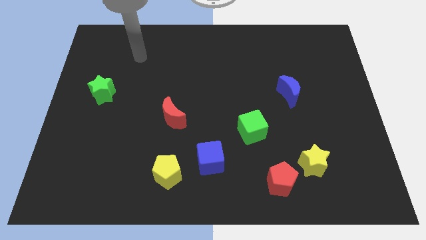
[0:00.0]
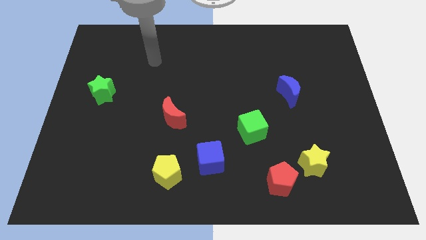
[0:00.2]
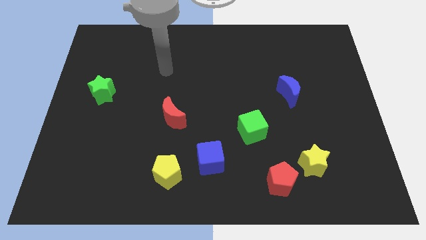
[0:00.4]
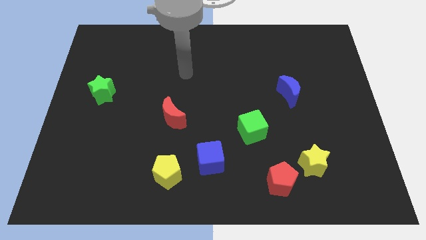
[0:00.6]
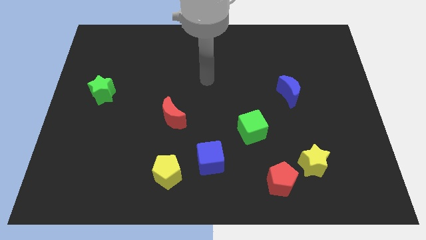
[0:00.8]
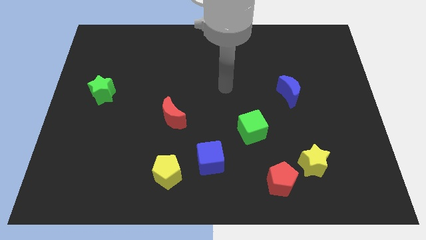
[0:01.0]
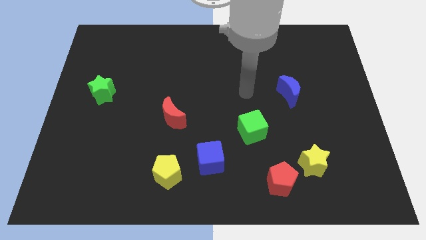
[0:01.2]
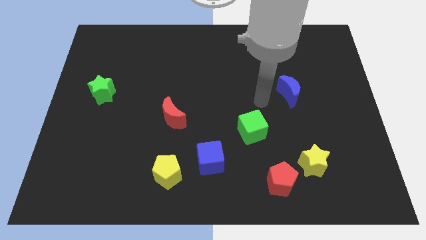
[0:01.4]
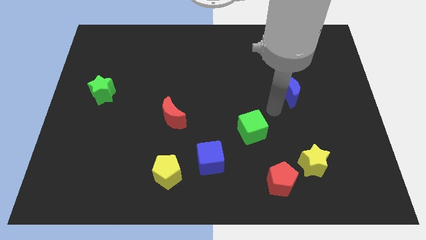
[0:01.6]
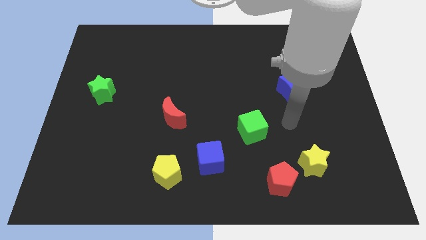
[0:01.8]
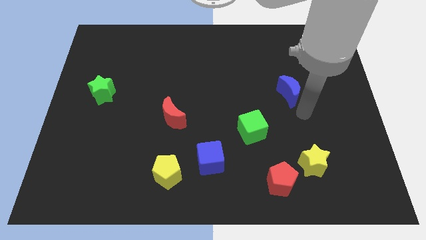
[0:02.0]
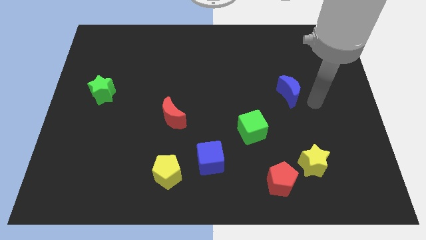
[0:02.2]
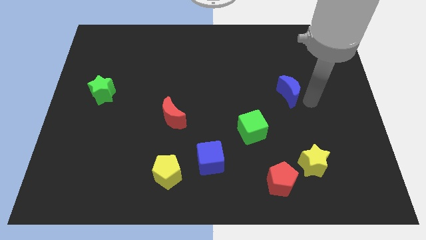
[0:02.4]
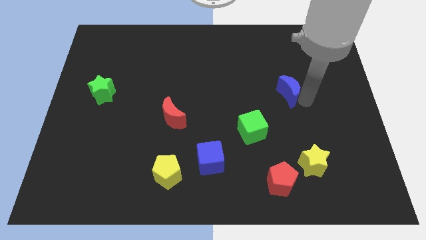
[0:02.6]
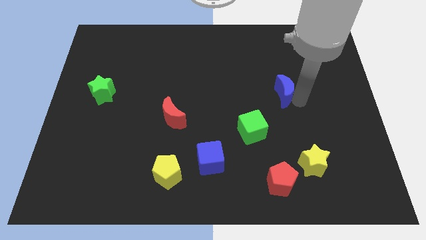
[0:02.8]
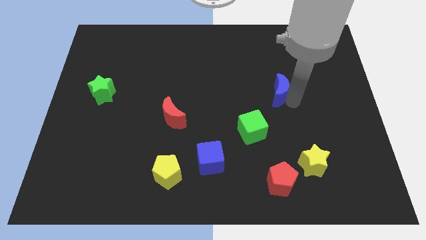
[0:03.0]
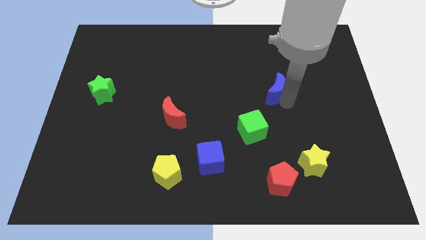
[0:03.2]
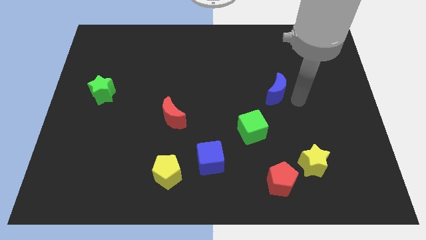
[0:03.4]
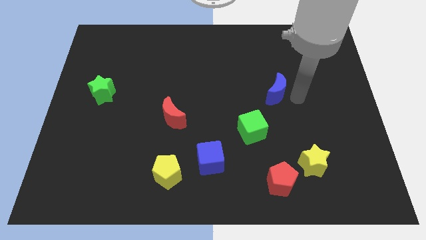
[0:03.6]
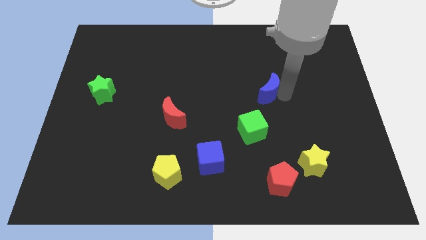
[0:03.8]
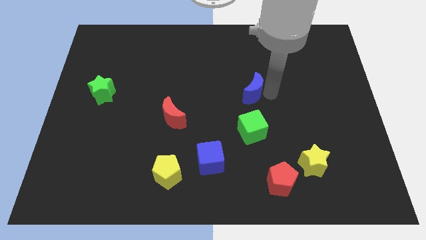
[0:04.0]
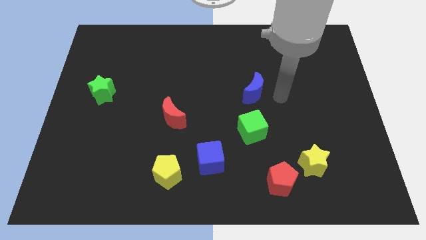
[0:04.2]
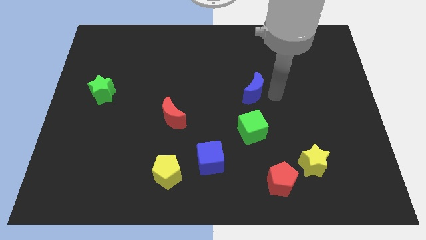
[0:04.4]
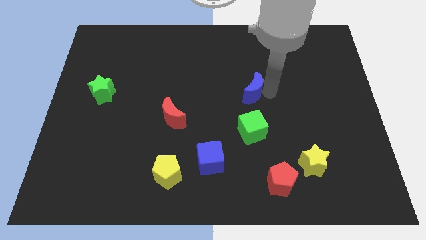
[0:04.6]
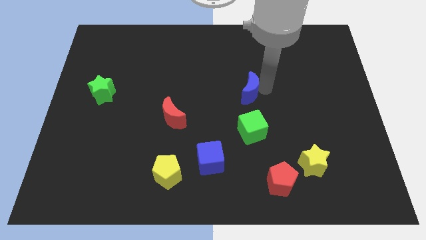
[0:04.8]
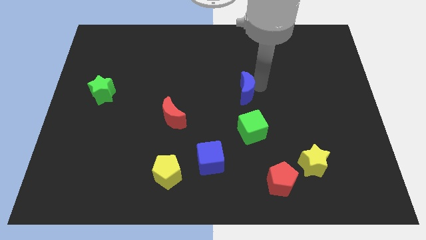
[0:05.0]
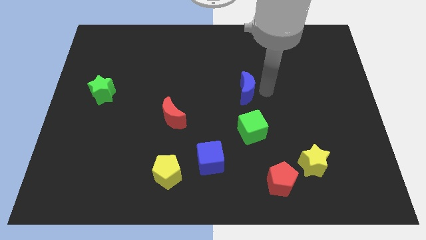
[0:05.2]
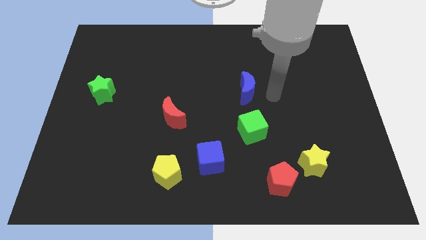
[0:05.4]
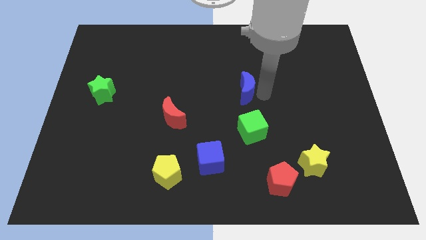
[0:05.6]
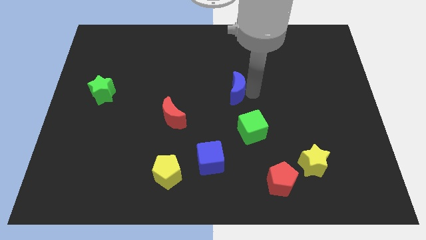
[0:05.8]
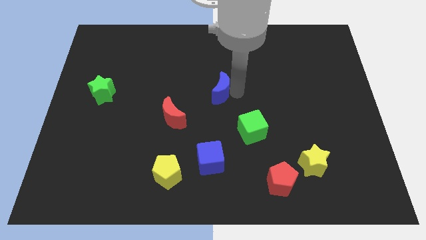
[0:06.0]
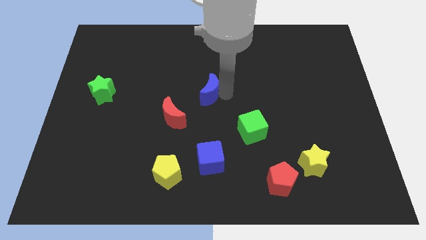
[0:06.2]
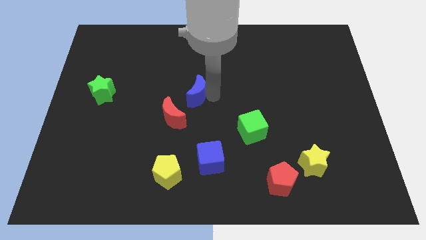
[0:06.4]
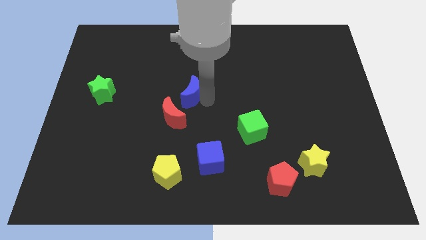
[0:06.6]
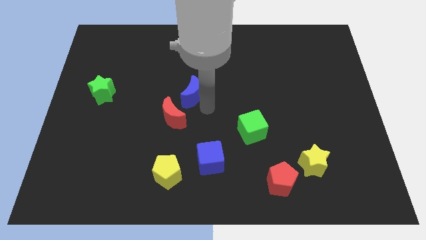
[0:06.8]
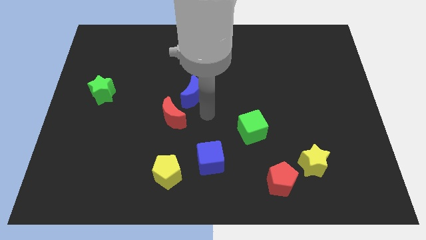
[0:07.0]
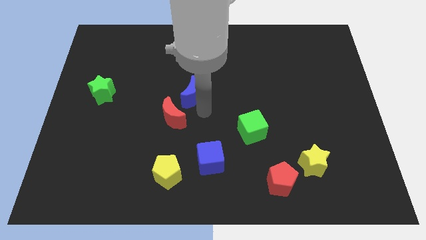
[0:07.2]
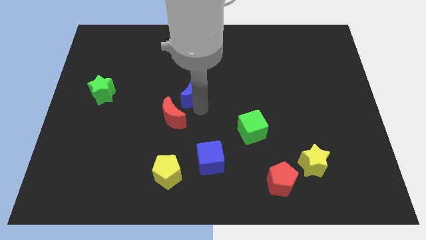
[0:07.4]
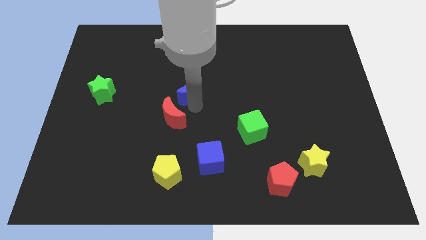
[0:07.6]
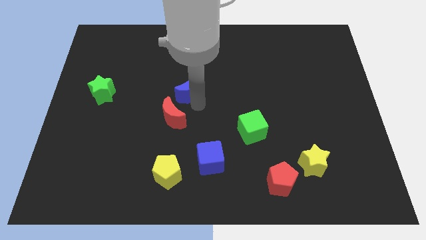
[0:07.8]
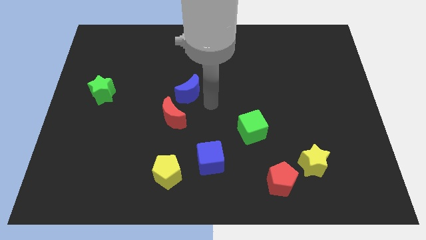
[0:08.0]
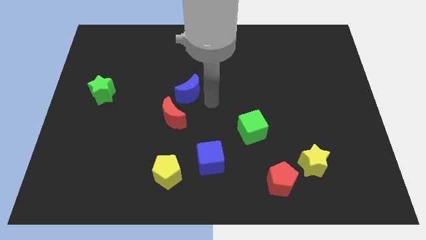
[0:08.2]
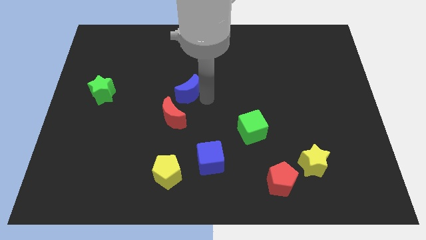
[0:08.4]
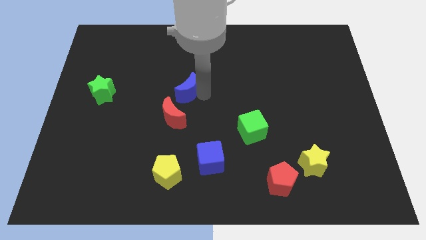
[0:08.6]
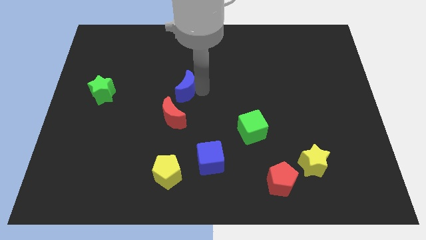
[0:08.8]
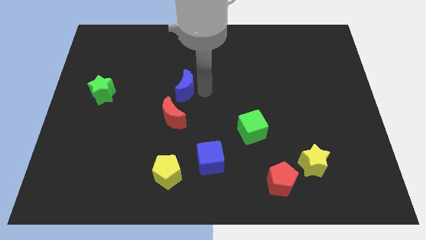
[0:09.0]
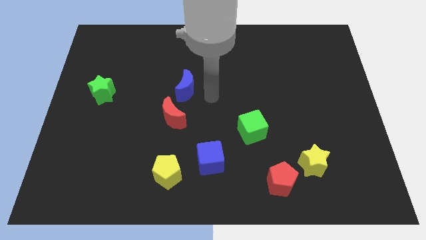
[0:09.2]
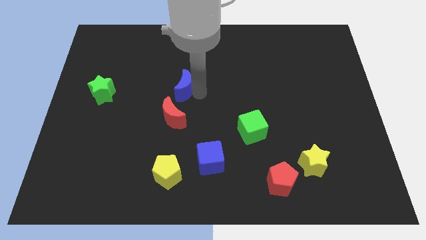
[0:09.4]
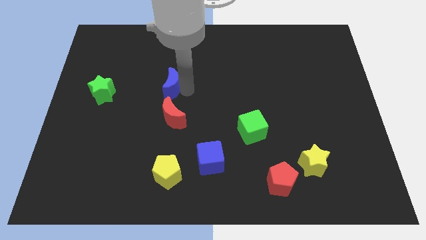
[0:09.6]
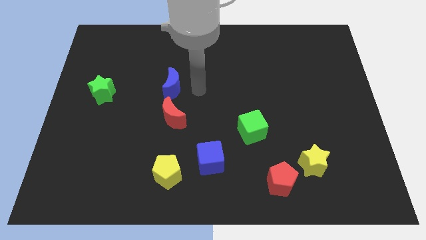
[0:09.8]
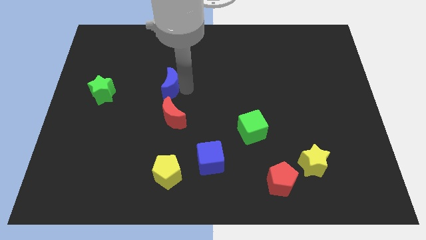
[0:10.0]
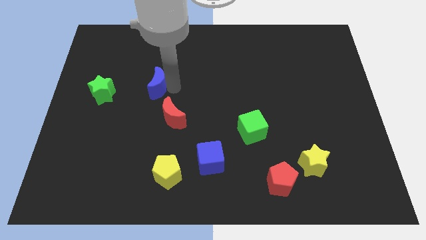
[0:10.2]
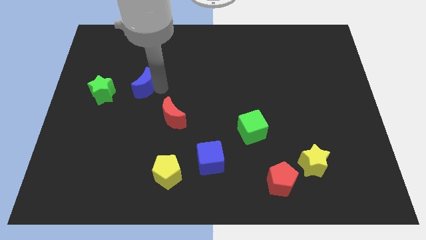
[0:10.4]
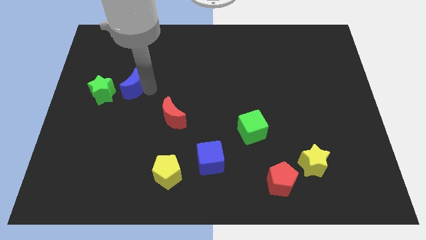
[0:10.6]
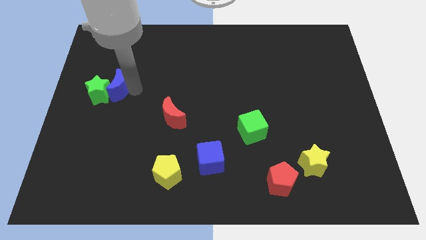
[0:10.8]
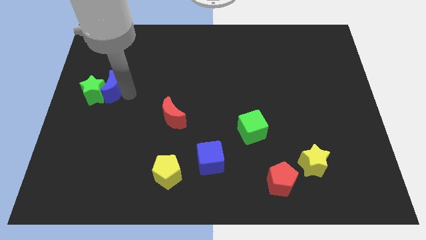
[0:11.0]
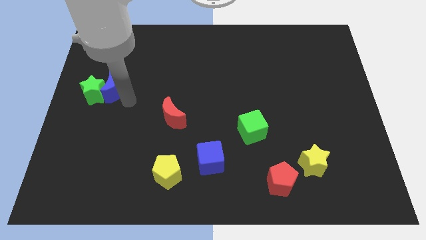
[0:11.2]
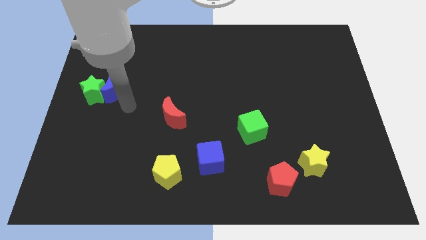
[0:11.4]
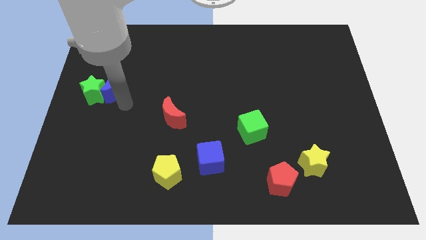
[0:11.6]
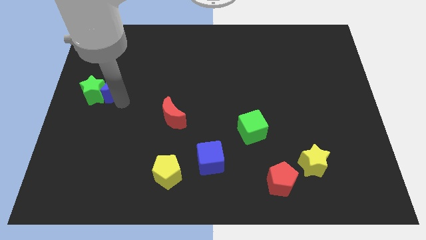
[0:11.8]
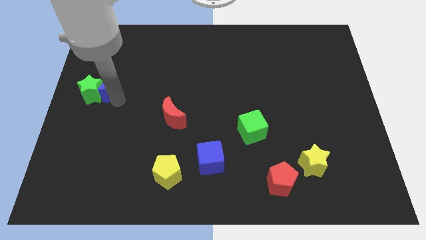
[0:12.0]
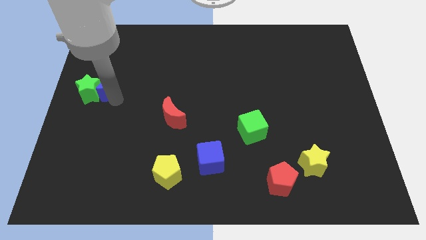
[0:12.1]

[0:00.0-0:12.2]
slide the blue moon to the left side of the board

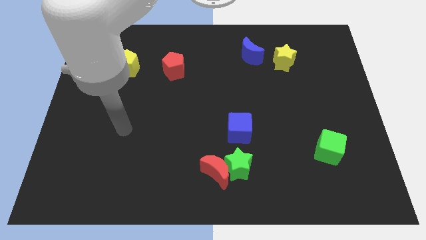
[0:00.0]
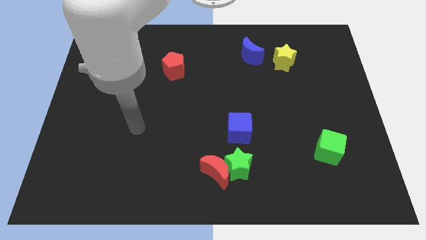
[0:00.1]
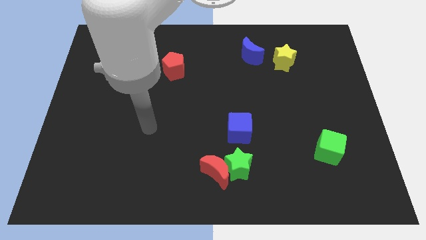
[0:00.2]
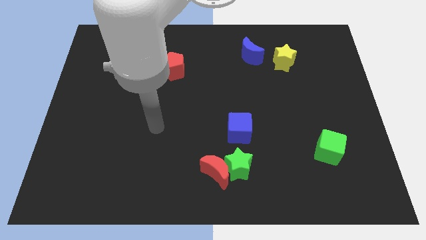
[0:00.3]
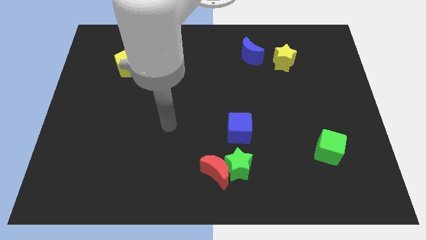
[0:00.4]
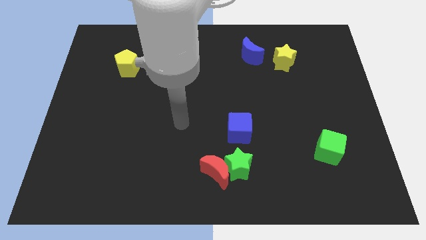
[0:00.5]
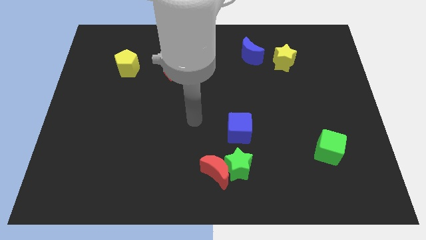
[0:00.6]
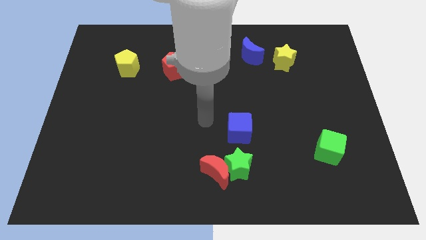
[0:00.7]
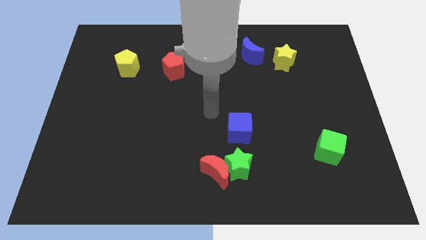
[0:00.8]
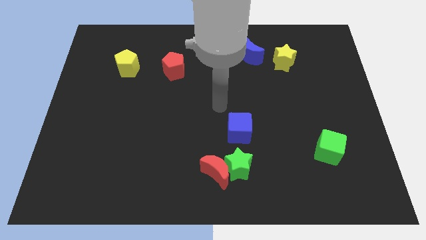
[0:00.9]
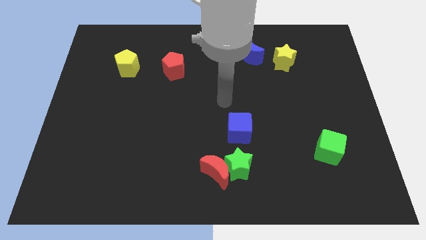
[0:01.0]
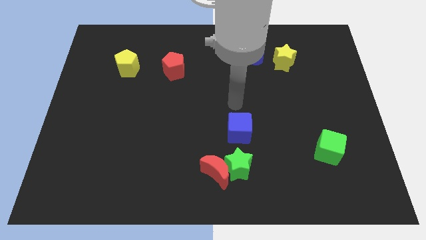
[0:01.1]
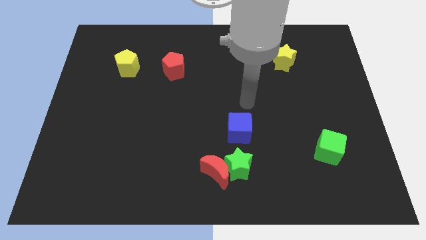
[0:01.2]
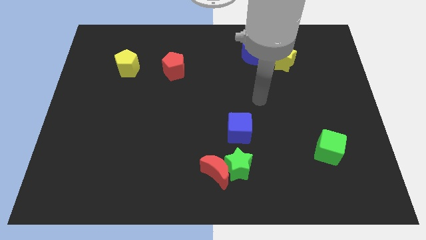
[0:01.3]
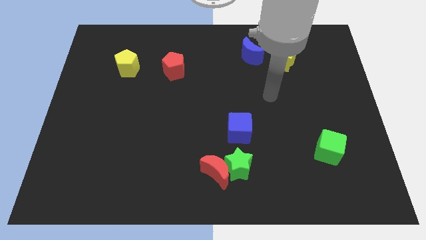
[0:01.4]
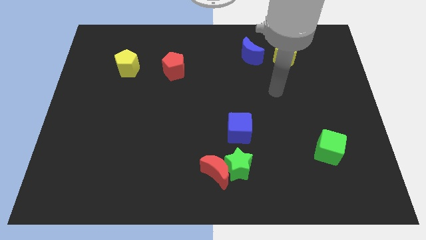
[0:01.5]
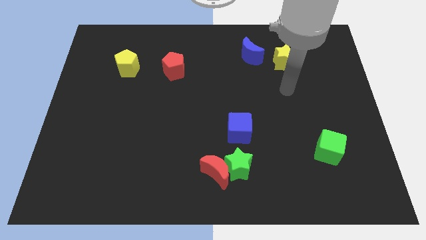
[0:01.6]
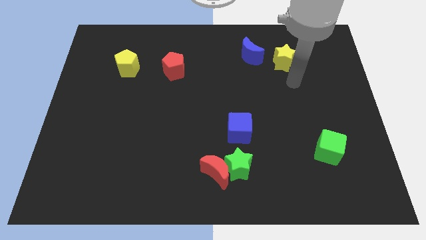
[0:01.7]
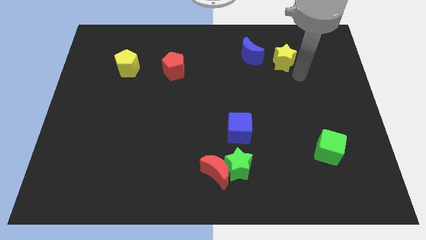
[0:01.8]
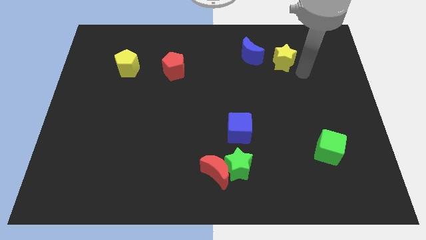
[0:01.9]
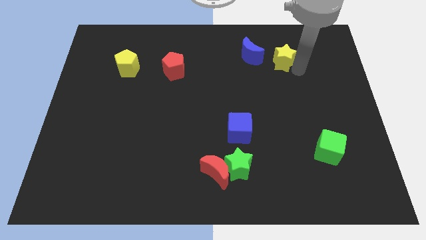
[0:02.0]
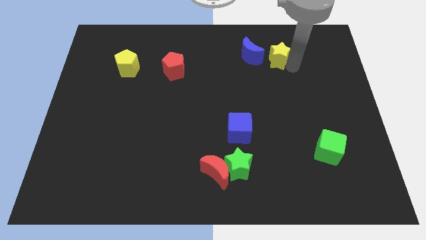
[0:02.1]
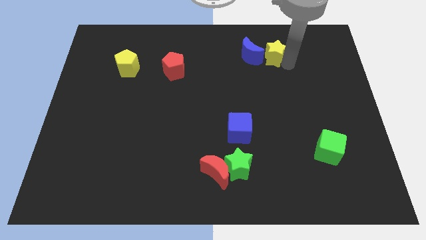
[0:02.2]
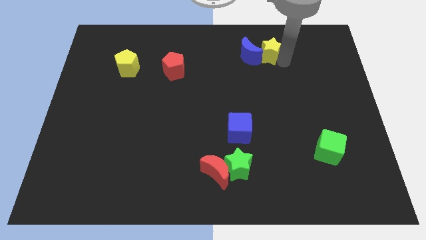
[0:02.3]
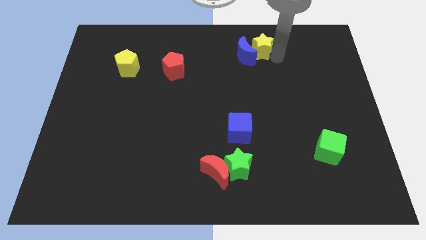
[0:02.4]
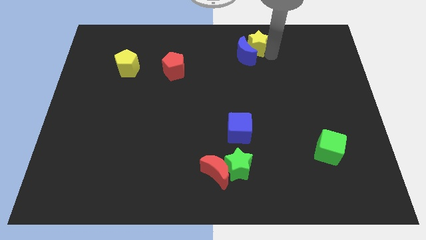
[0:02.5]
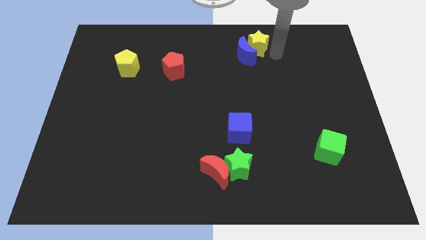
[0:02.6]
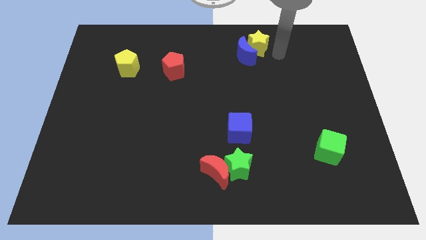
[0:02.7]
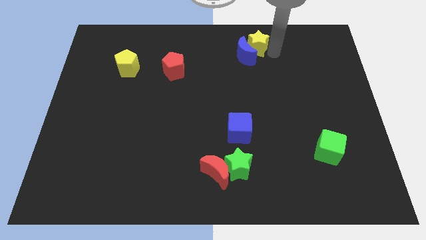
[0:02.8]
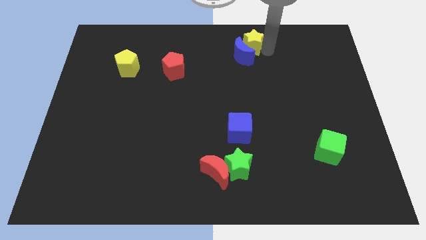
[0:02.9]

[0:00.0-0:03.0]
put the yellow star to the top
